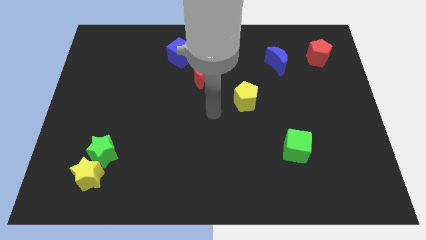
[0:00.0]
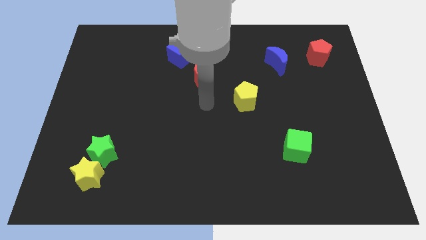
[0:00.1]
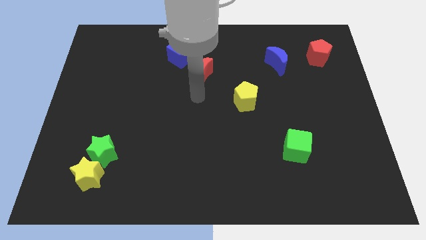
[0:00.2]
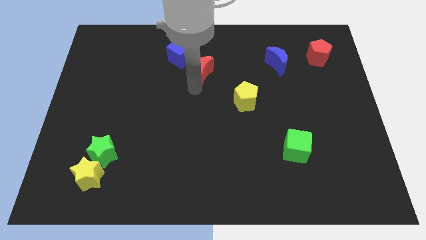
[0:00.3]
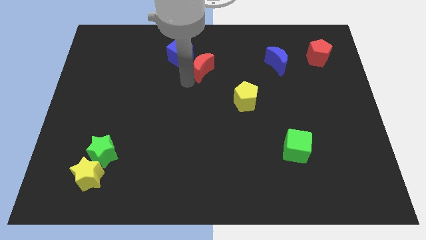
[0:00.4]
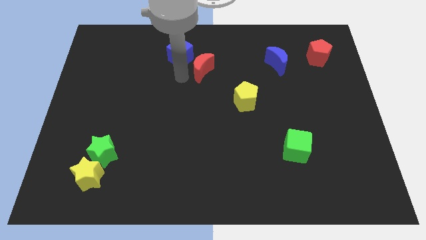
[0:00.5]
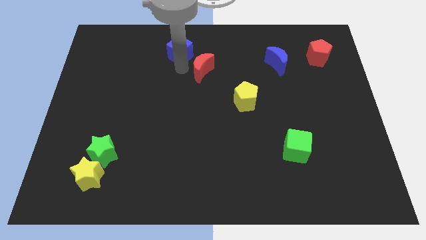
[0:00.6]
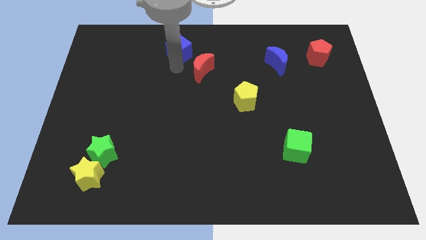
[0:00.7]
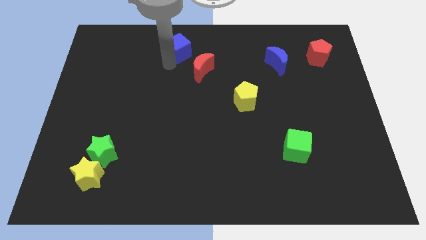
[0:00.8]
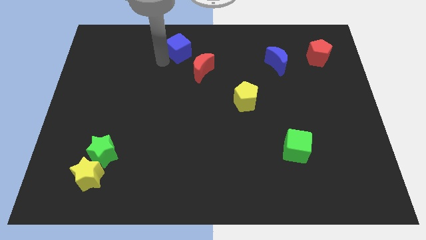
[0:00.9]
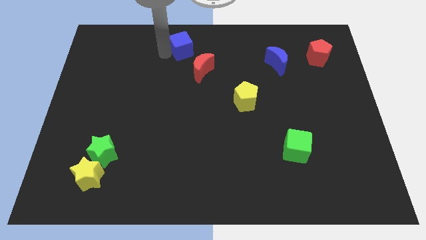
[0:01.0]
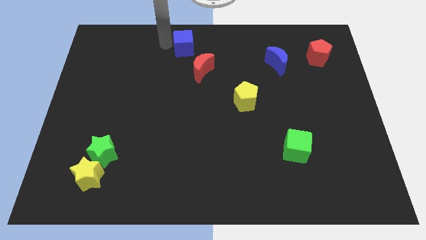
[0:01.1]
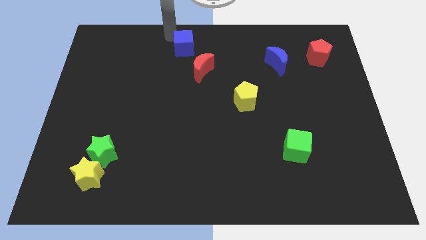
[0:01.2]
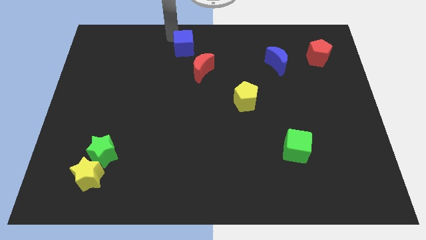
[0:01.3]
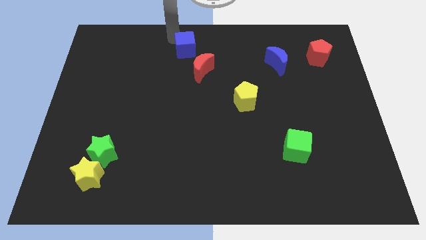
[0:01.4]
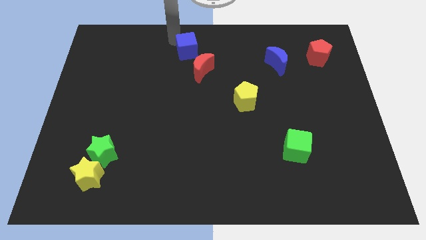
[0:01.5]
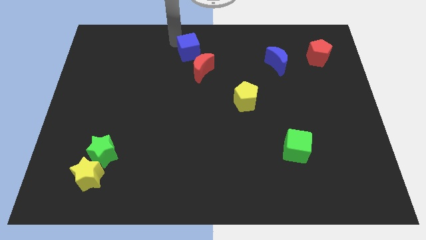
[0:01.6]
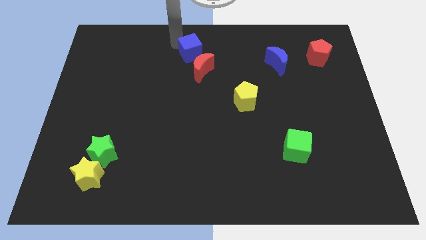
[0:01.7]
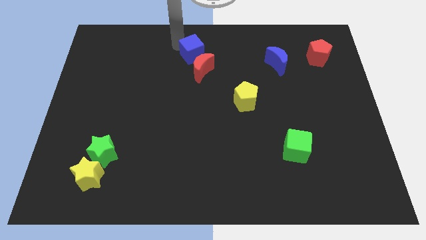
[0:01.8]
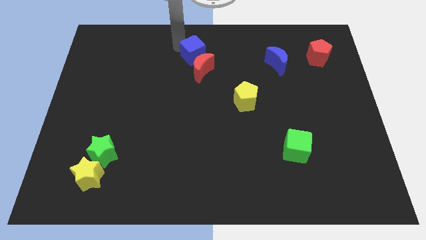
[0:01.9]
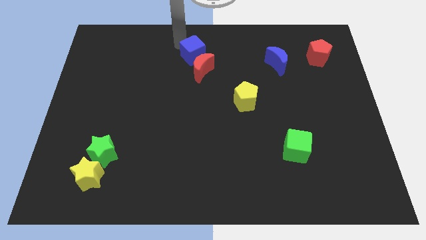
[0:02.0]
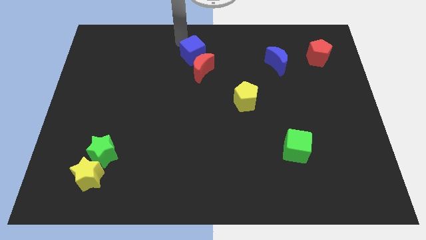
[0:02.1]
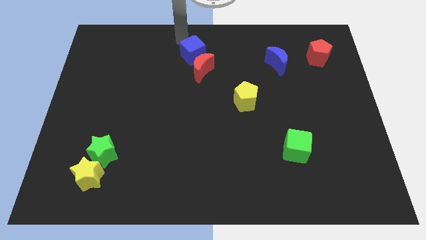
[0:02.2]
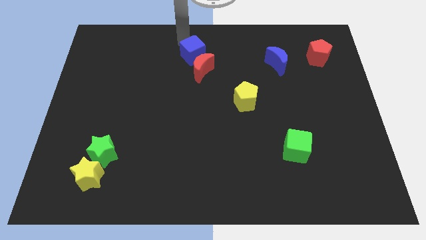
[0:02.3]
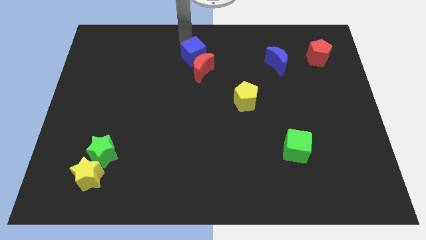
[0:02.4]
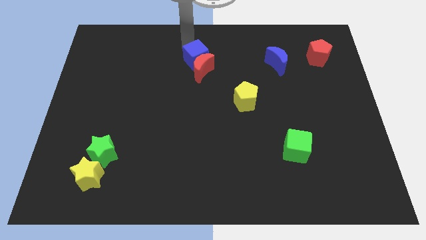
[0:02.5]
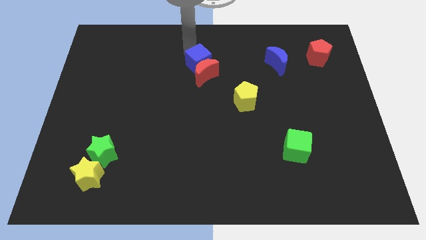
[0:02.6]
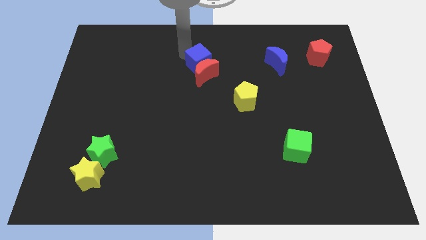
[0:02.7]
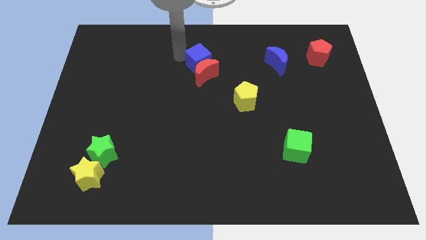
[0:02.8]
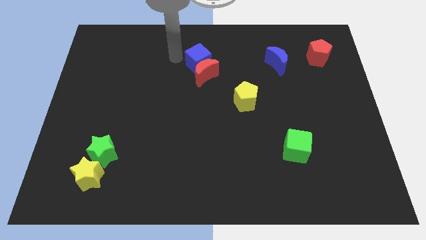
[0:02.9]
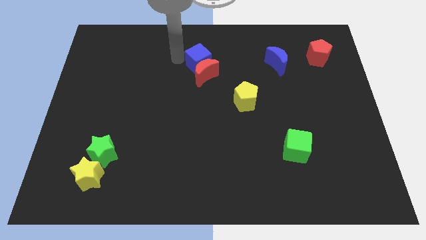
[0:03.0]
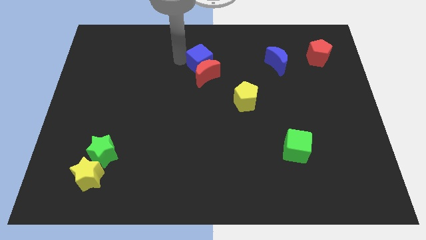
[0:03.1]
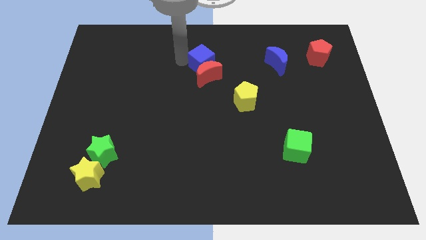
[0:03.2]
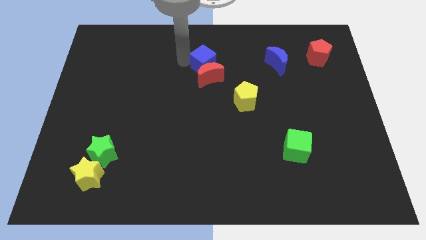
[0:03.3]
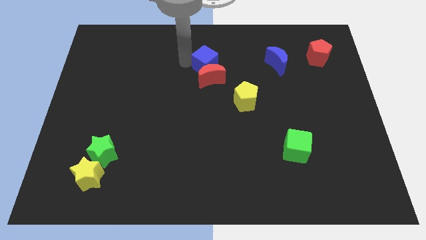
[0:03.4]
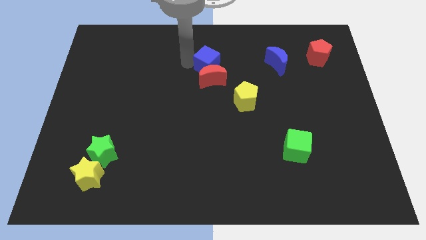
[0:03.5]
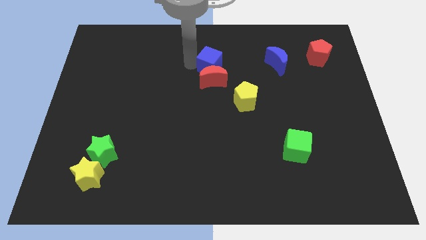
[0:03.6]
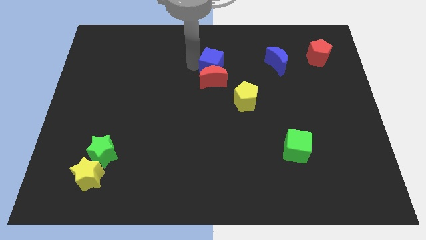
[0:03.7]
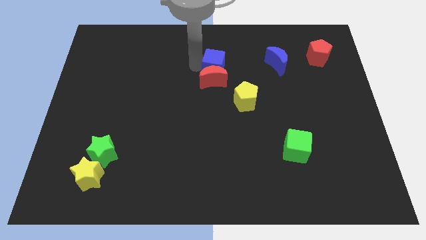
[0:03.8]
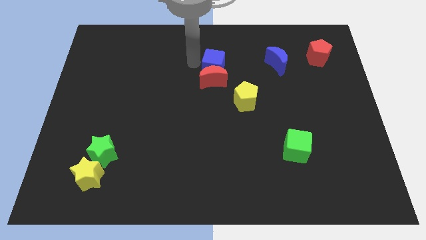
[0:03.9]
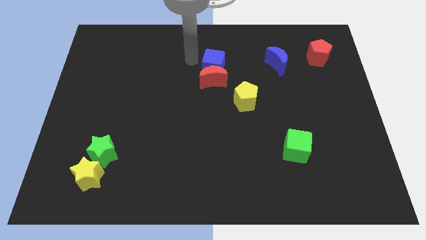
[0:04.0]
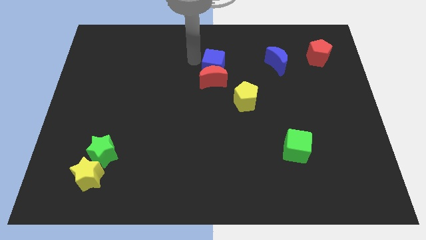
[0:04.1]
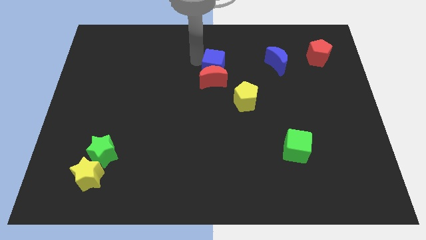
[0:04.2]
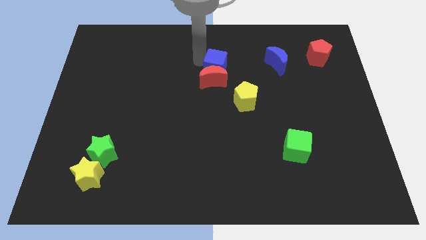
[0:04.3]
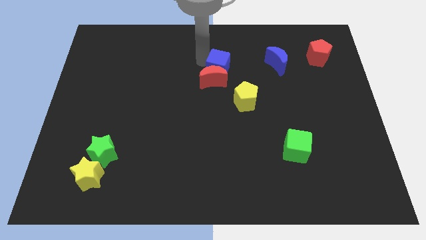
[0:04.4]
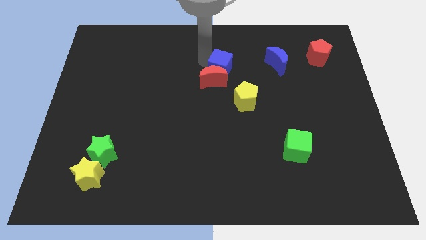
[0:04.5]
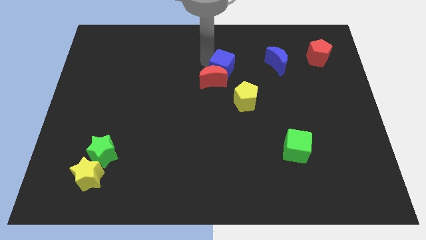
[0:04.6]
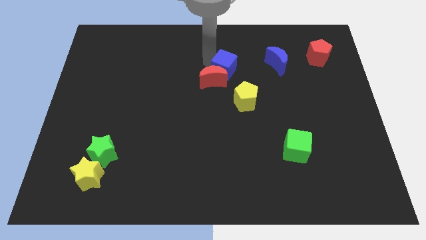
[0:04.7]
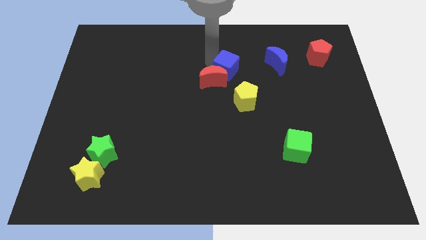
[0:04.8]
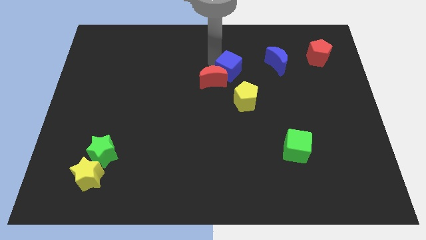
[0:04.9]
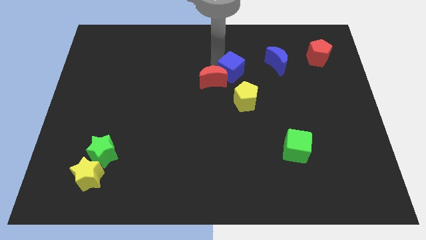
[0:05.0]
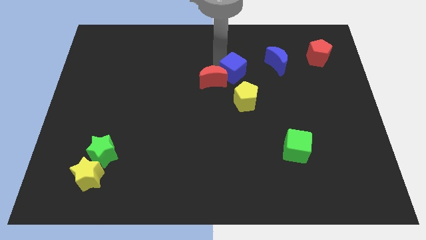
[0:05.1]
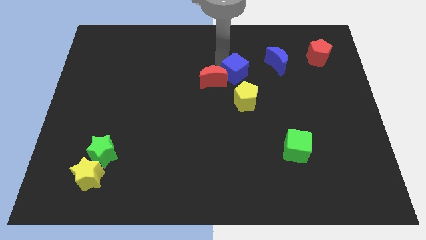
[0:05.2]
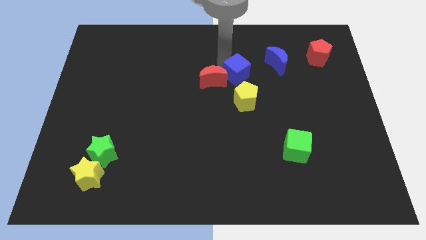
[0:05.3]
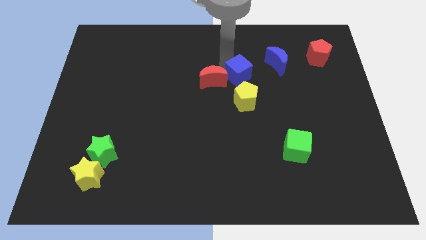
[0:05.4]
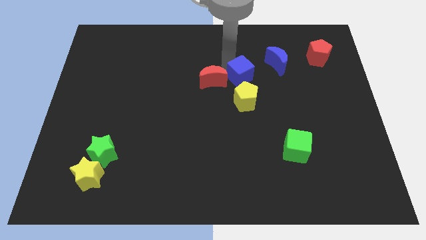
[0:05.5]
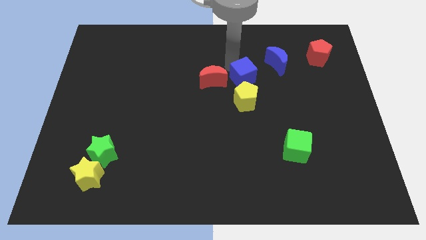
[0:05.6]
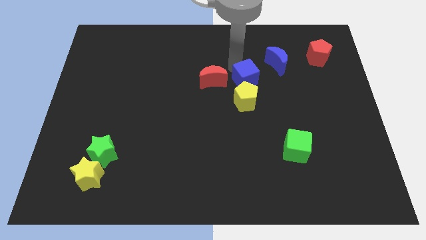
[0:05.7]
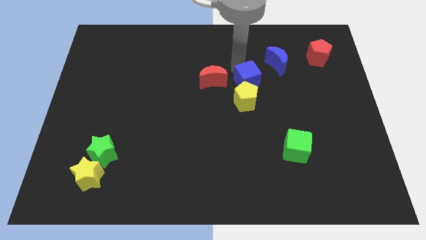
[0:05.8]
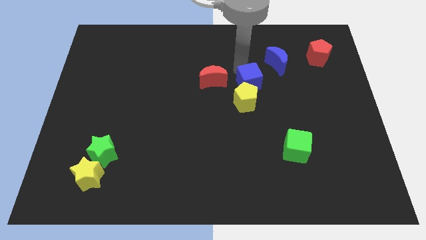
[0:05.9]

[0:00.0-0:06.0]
move the blue cube towards the yellow pentagon

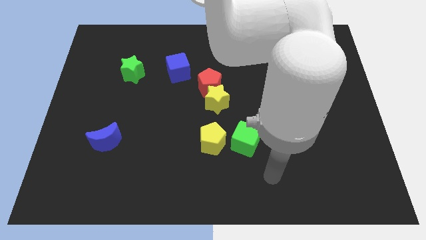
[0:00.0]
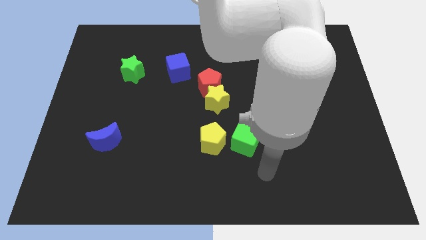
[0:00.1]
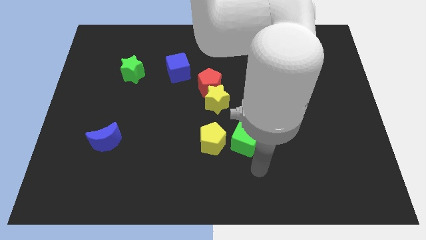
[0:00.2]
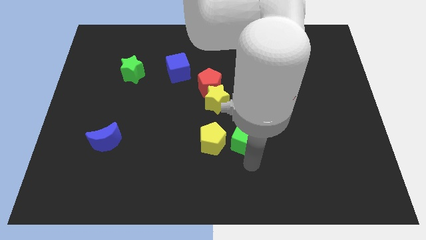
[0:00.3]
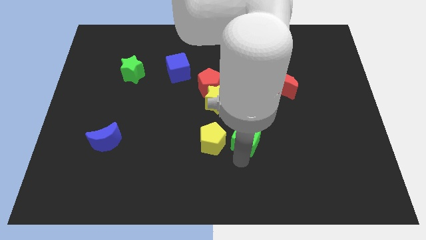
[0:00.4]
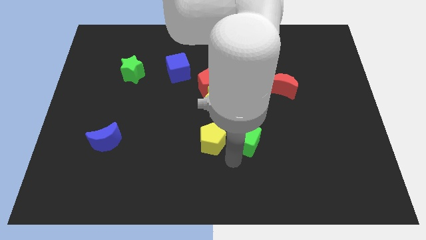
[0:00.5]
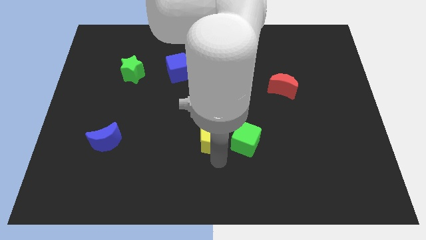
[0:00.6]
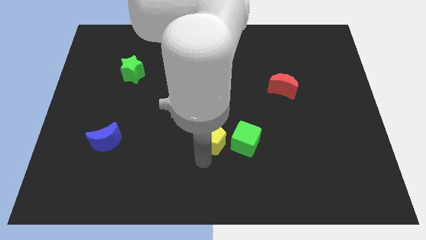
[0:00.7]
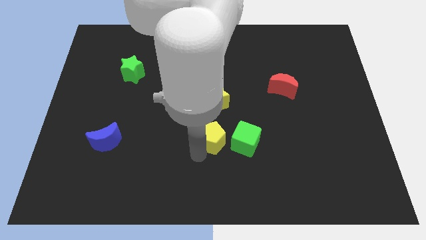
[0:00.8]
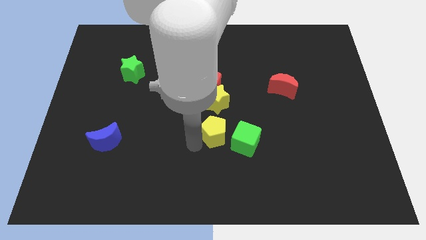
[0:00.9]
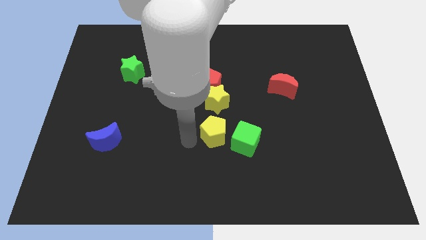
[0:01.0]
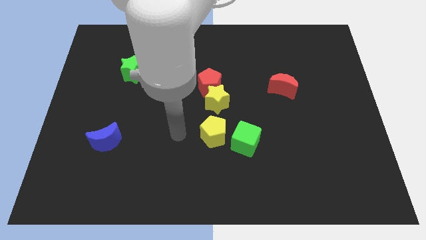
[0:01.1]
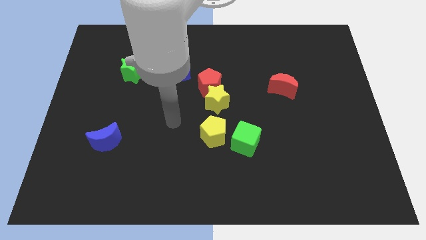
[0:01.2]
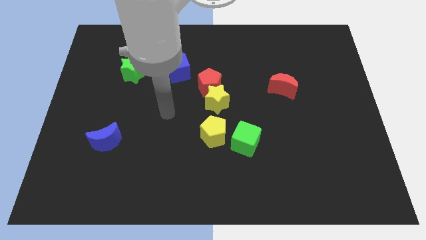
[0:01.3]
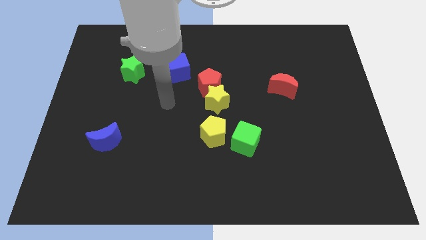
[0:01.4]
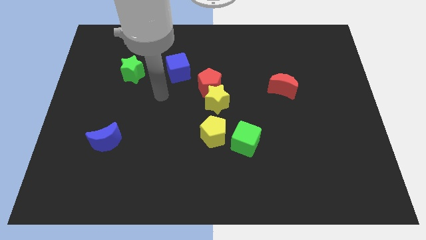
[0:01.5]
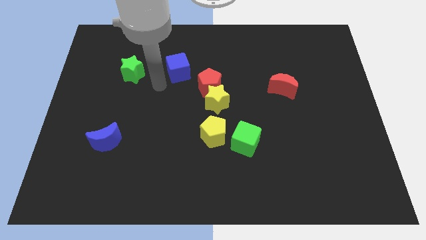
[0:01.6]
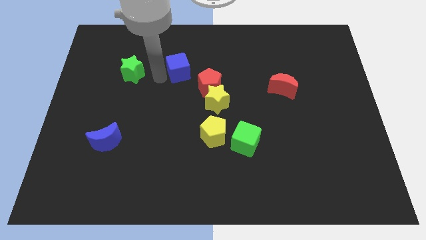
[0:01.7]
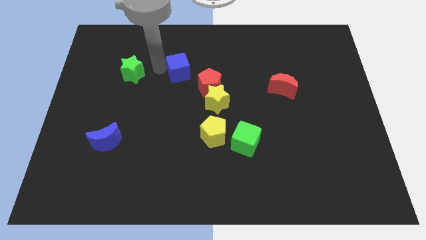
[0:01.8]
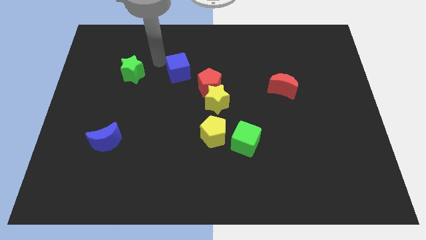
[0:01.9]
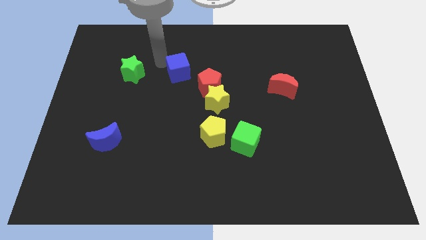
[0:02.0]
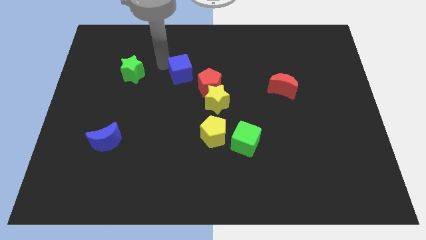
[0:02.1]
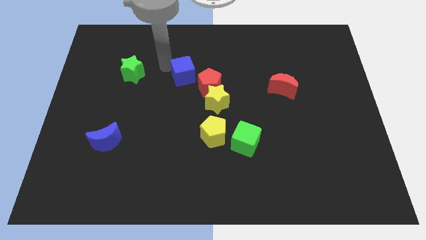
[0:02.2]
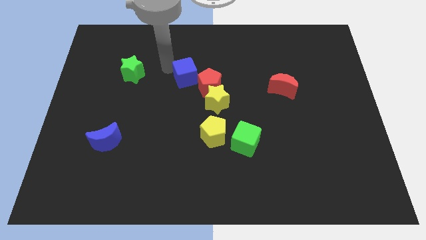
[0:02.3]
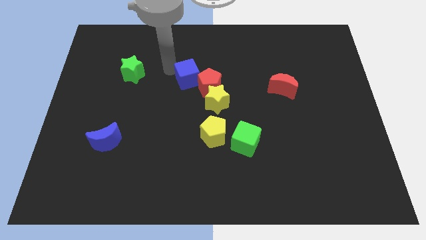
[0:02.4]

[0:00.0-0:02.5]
push the blue cube close to the red pentagon
